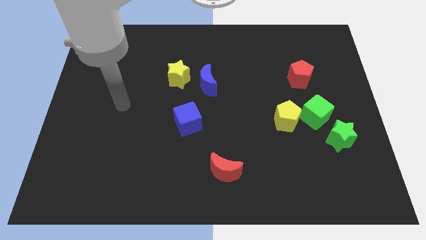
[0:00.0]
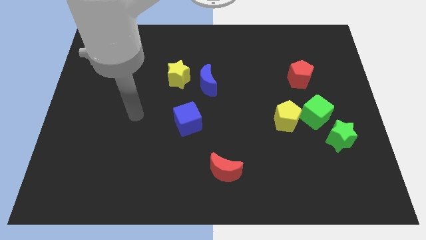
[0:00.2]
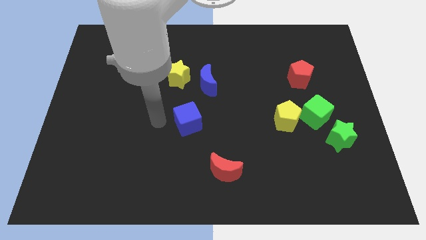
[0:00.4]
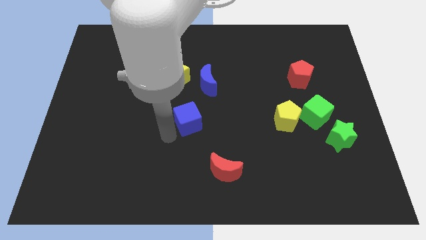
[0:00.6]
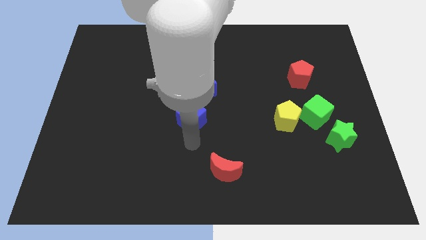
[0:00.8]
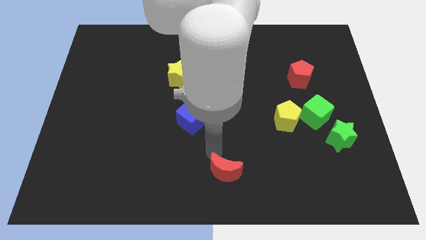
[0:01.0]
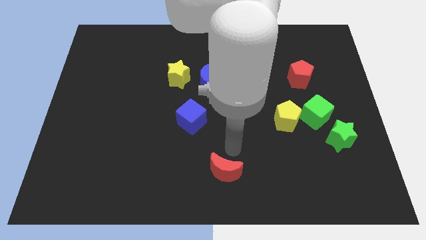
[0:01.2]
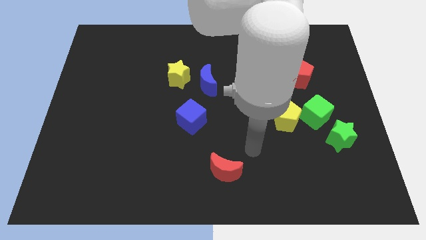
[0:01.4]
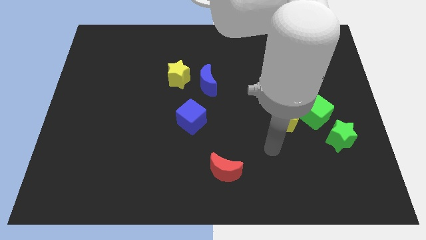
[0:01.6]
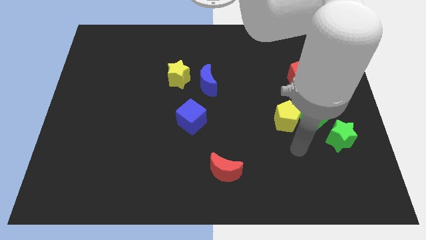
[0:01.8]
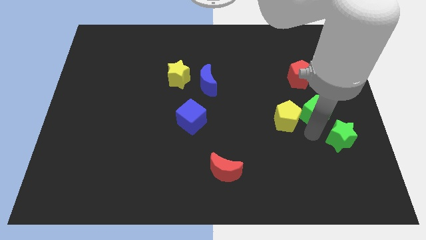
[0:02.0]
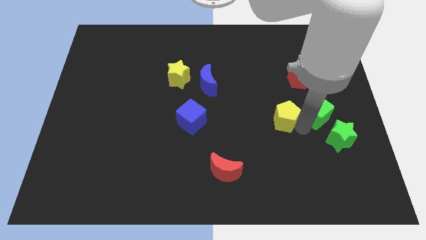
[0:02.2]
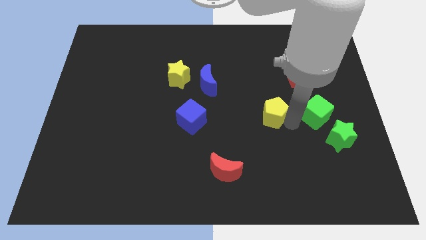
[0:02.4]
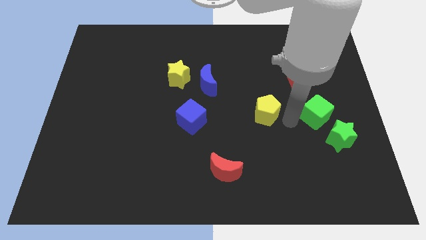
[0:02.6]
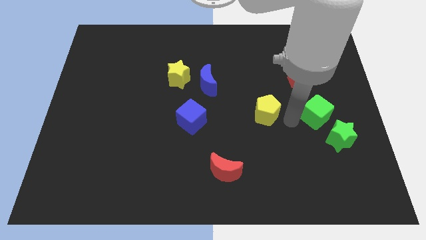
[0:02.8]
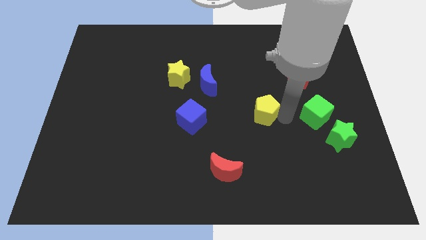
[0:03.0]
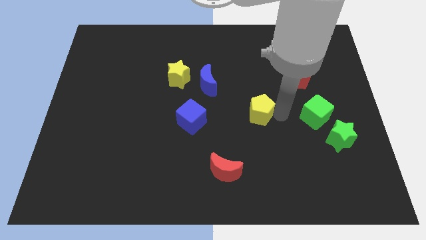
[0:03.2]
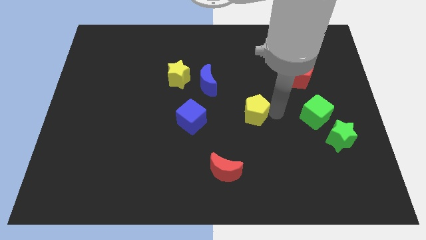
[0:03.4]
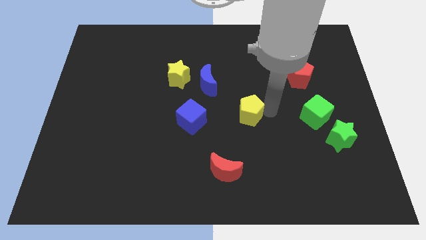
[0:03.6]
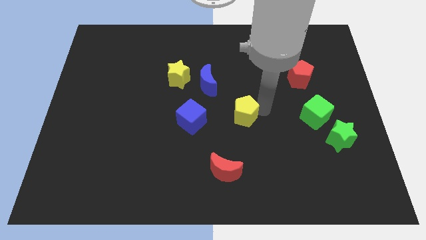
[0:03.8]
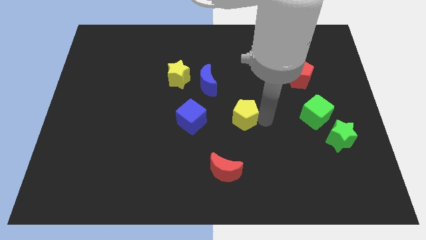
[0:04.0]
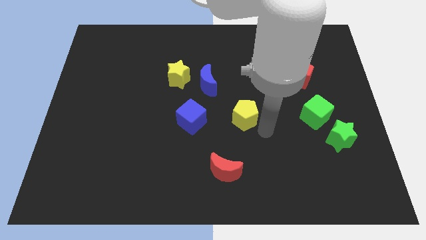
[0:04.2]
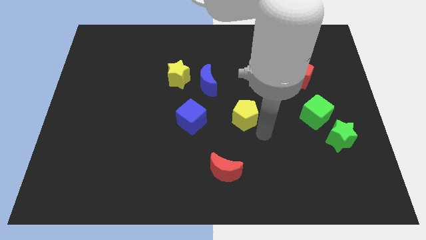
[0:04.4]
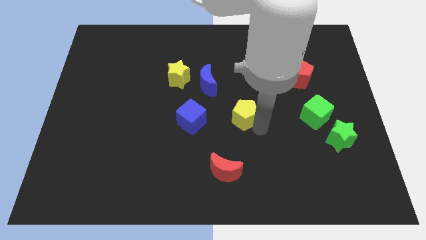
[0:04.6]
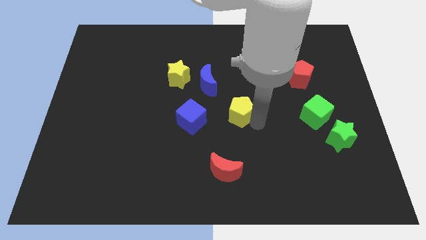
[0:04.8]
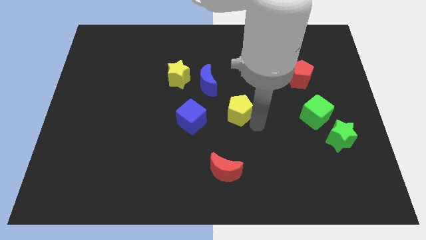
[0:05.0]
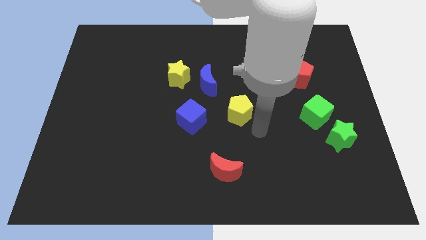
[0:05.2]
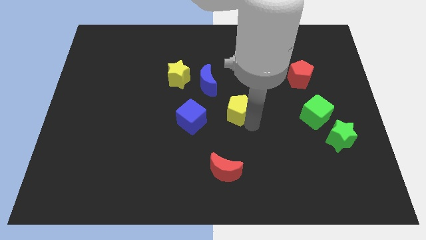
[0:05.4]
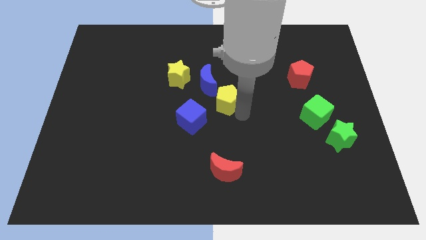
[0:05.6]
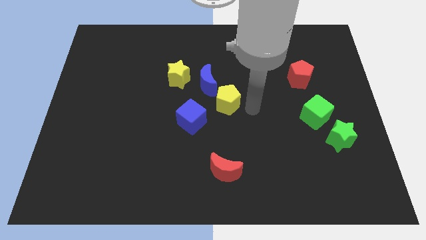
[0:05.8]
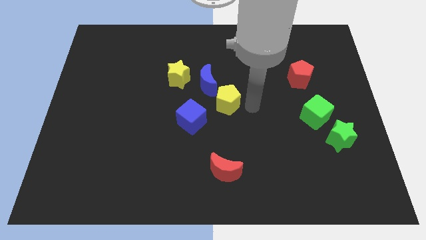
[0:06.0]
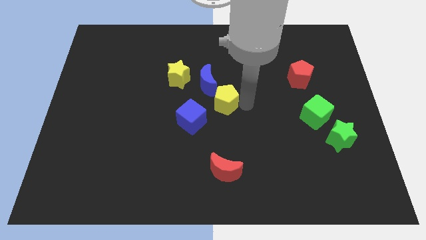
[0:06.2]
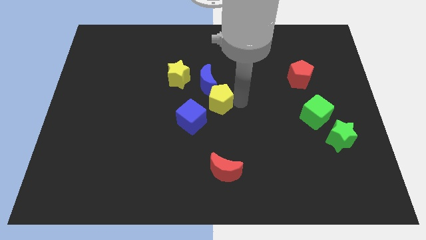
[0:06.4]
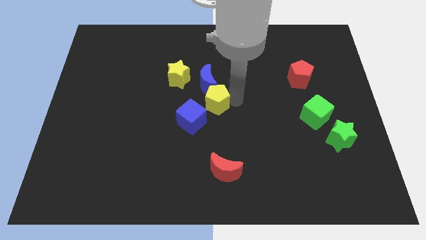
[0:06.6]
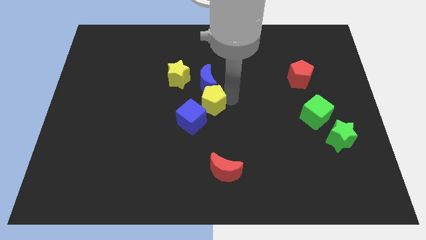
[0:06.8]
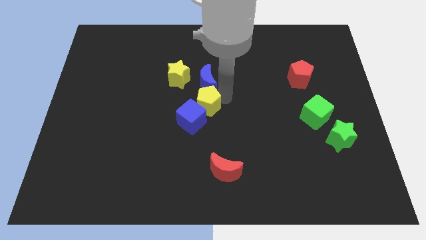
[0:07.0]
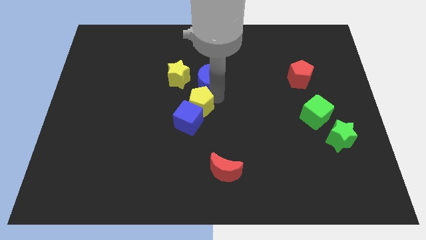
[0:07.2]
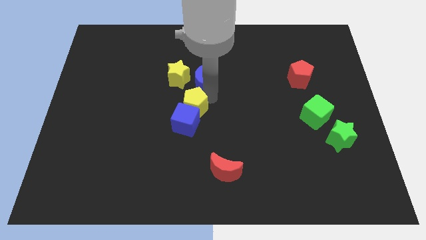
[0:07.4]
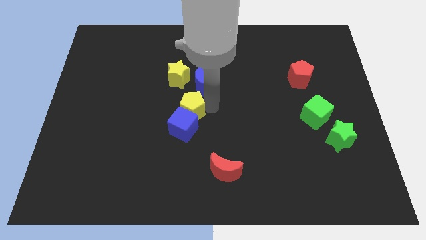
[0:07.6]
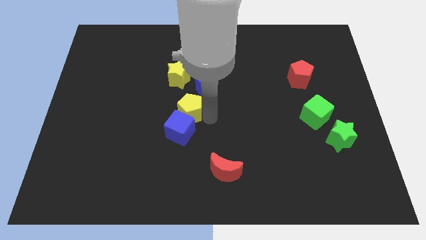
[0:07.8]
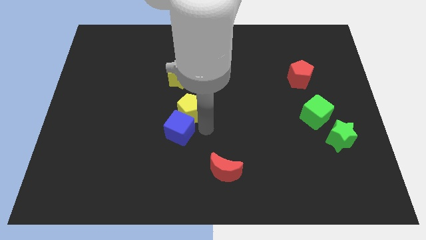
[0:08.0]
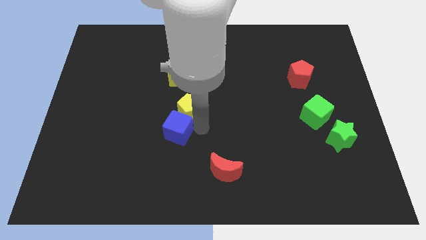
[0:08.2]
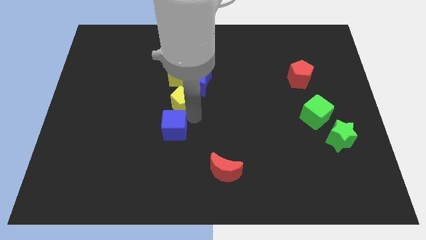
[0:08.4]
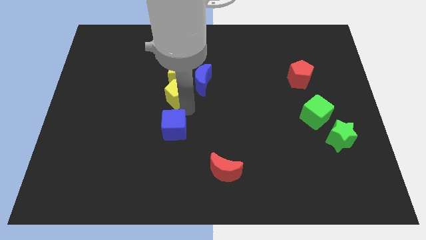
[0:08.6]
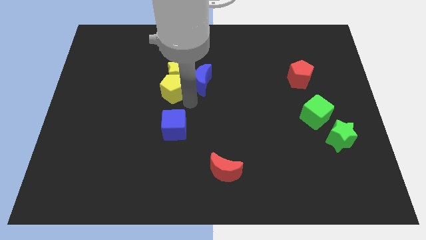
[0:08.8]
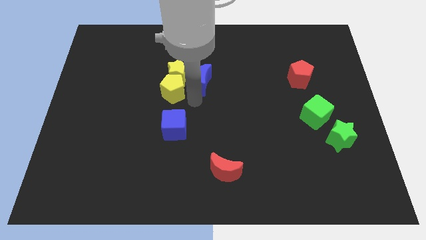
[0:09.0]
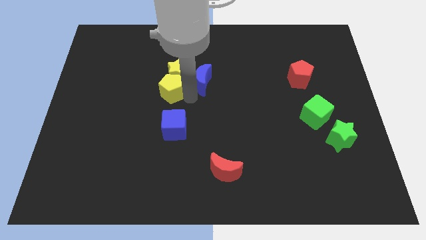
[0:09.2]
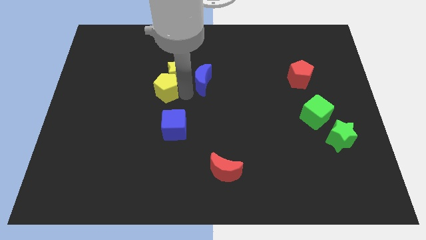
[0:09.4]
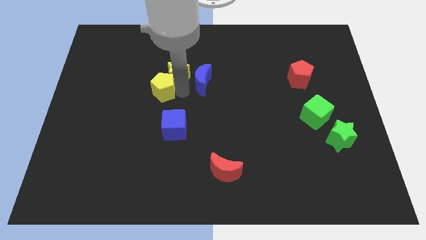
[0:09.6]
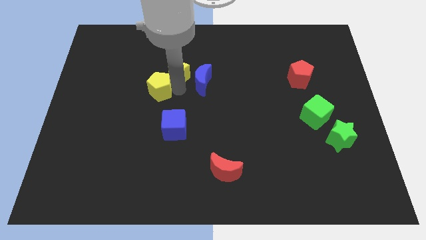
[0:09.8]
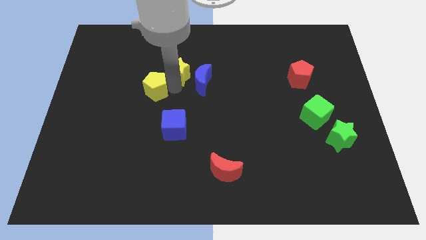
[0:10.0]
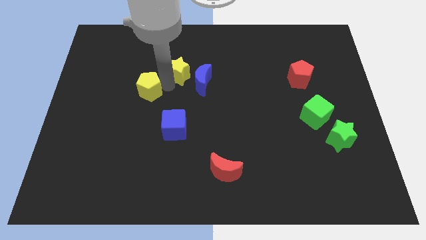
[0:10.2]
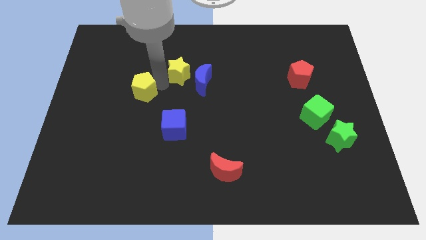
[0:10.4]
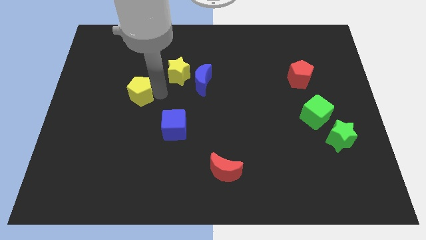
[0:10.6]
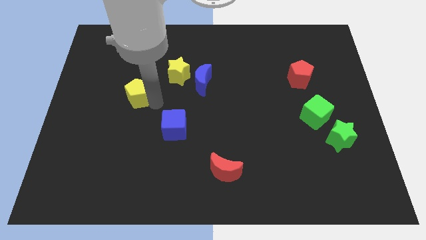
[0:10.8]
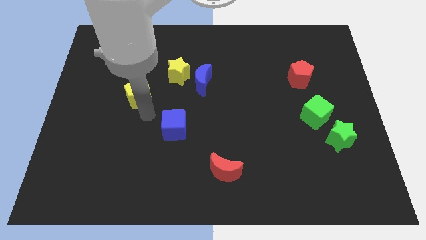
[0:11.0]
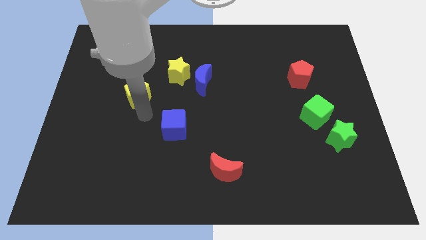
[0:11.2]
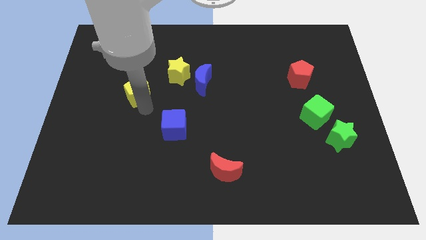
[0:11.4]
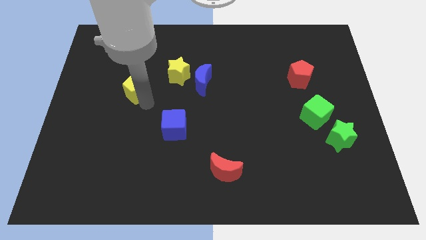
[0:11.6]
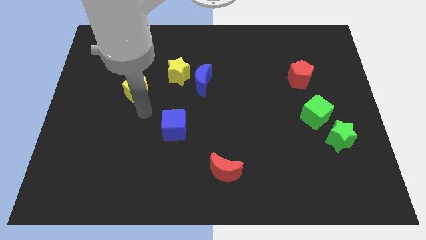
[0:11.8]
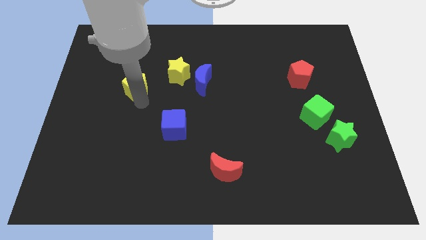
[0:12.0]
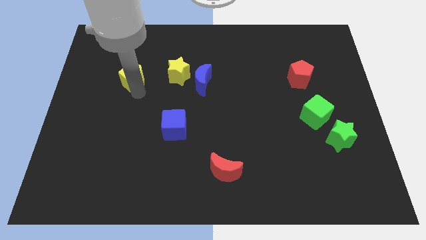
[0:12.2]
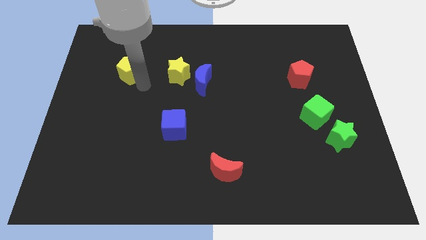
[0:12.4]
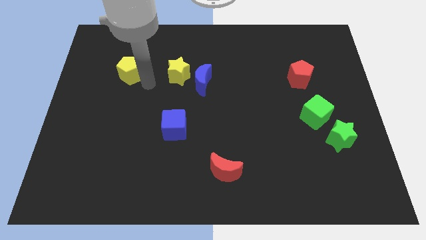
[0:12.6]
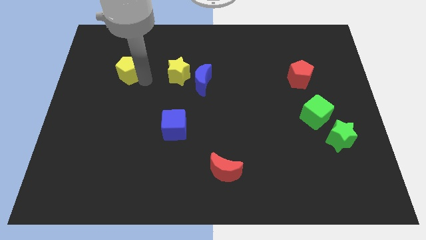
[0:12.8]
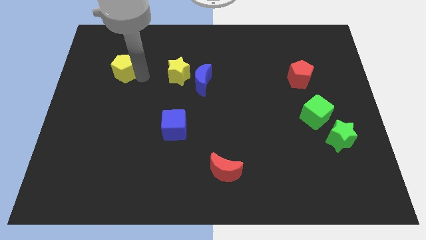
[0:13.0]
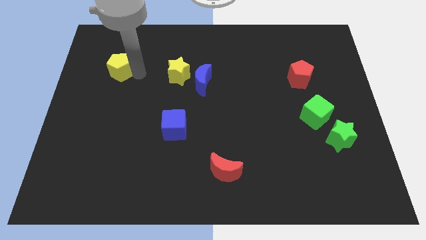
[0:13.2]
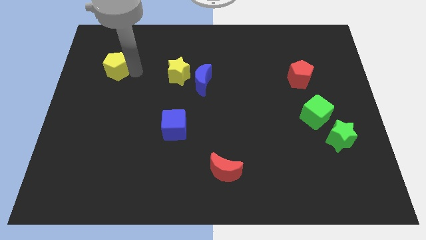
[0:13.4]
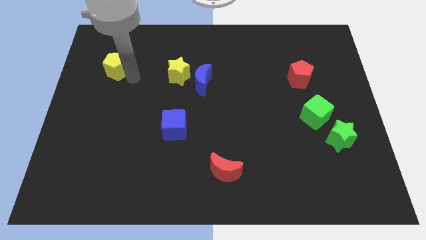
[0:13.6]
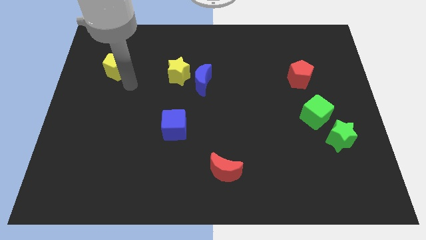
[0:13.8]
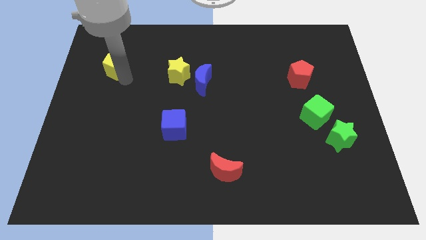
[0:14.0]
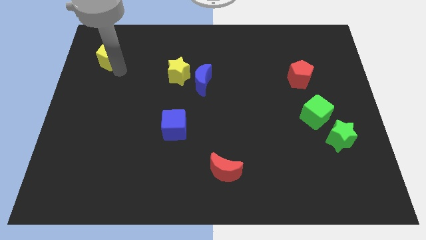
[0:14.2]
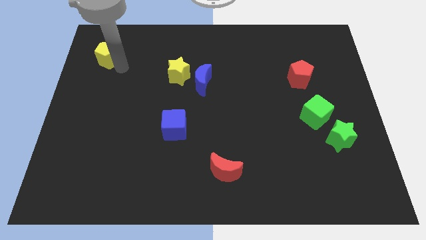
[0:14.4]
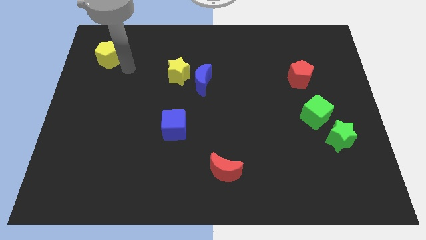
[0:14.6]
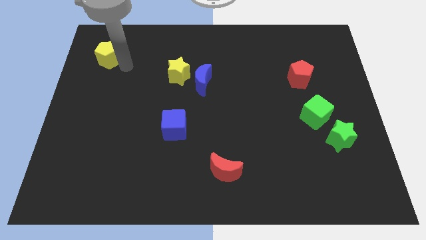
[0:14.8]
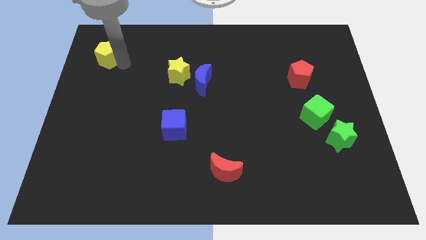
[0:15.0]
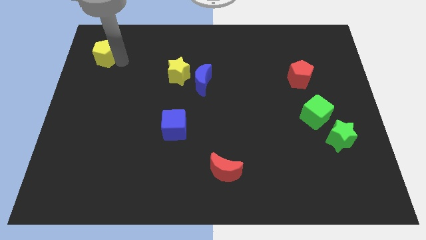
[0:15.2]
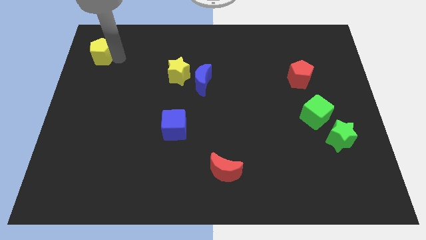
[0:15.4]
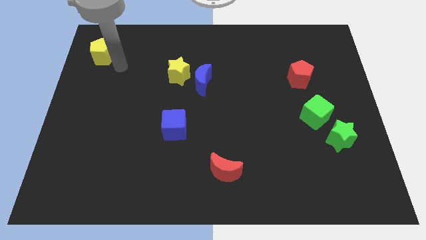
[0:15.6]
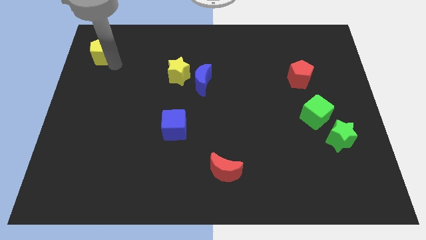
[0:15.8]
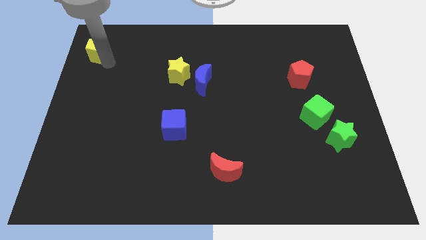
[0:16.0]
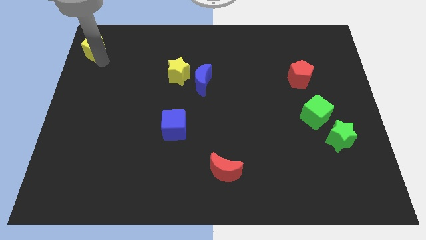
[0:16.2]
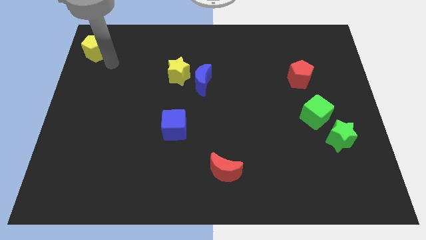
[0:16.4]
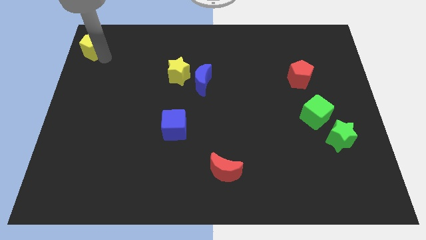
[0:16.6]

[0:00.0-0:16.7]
slide the yellow pentagon to the top left corner
